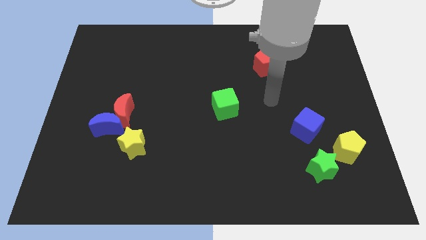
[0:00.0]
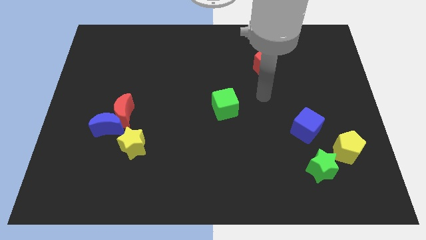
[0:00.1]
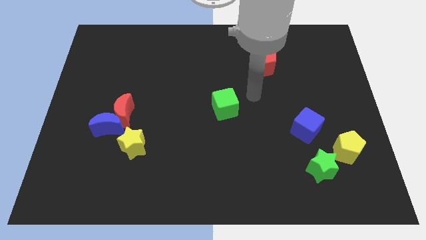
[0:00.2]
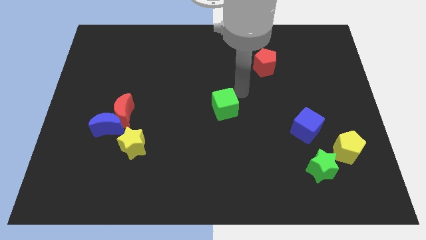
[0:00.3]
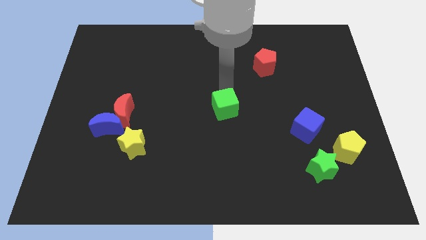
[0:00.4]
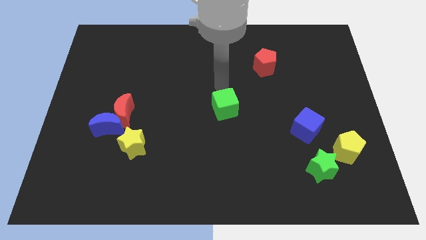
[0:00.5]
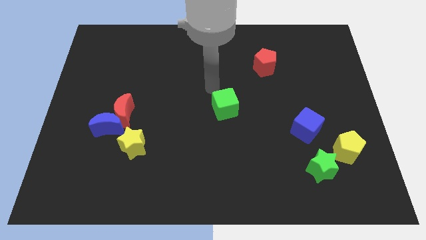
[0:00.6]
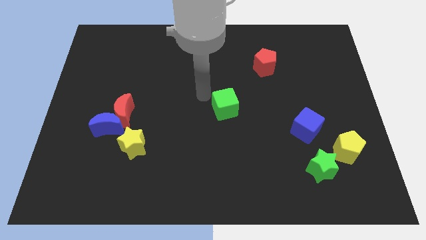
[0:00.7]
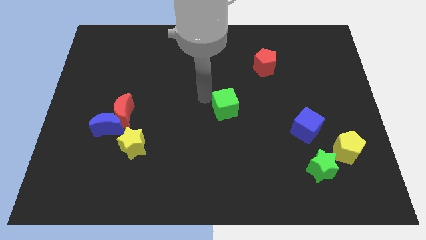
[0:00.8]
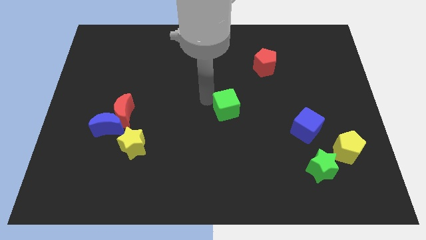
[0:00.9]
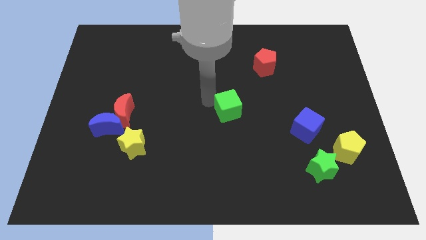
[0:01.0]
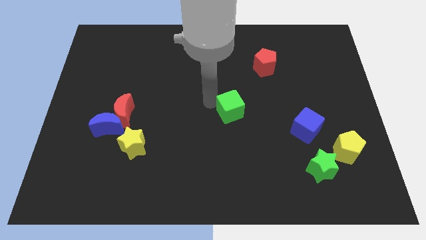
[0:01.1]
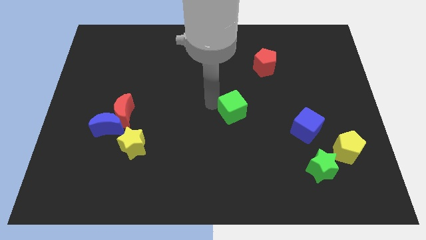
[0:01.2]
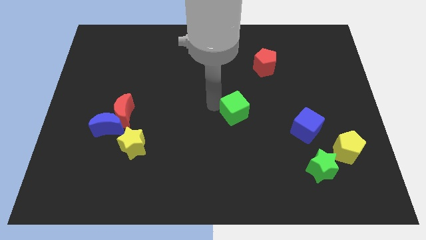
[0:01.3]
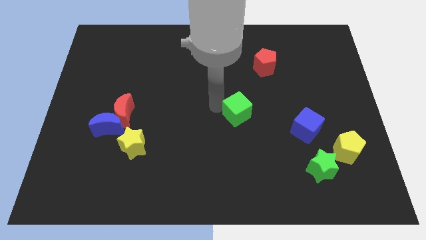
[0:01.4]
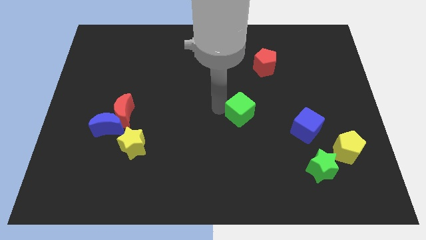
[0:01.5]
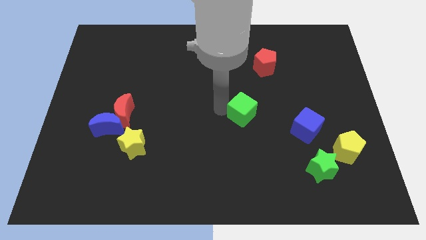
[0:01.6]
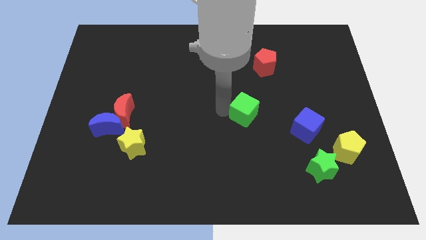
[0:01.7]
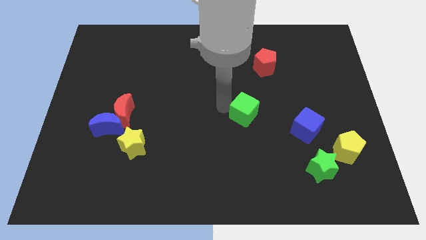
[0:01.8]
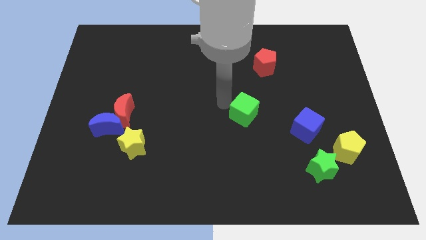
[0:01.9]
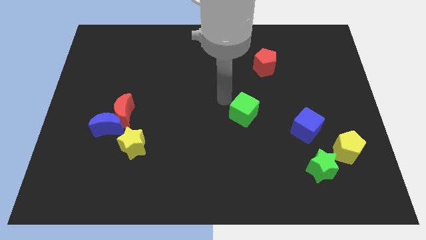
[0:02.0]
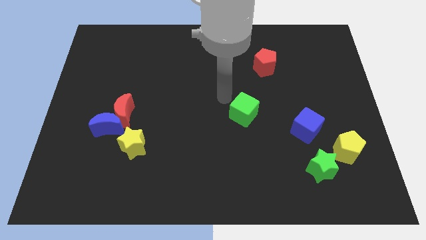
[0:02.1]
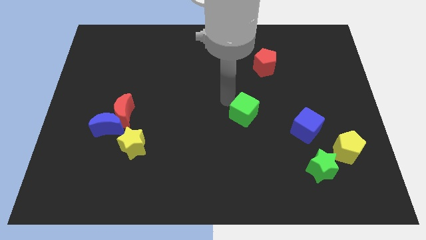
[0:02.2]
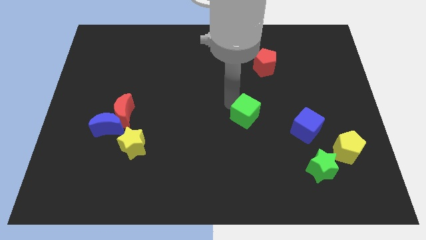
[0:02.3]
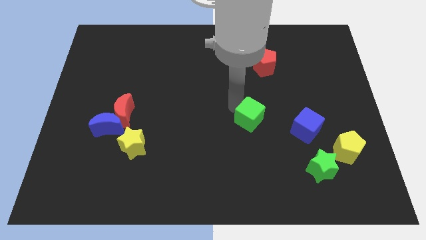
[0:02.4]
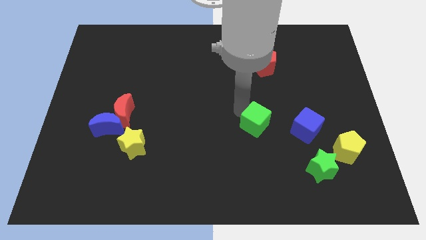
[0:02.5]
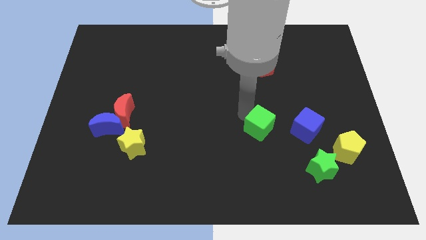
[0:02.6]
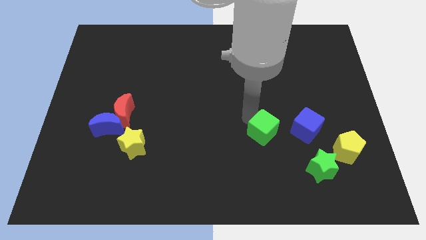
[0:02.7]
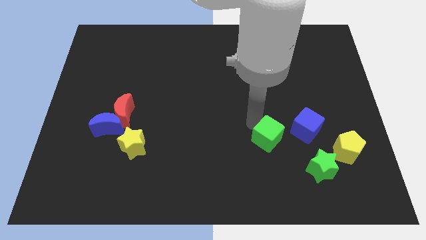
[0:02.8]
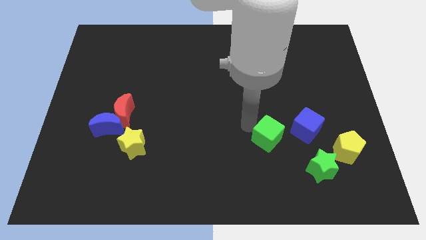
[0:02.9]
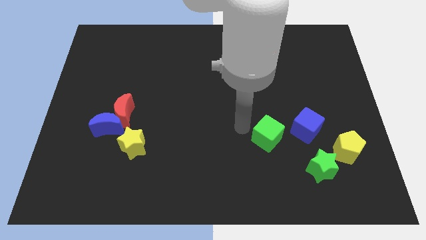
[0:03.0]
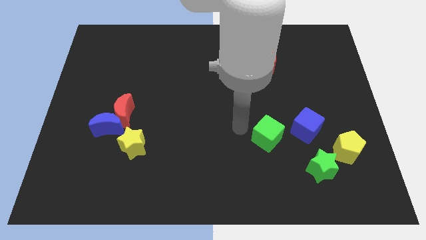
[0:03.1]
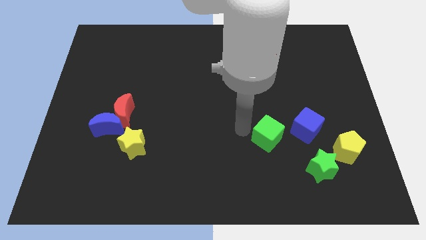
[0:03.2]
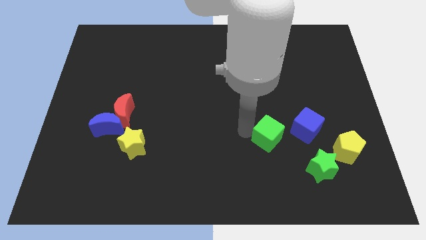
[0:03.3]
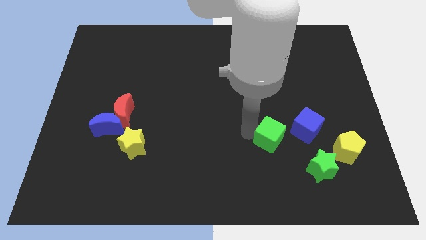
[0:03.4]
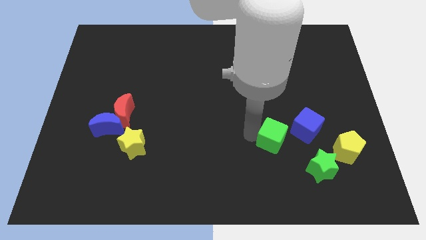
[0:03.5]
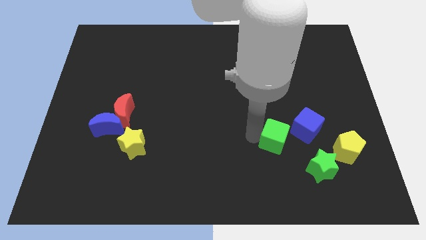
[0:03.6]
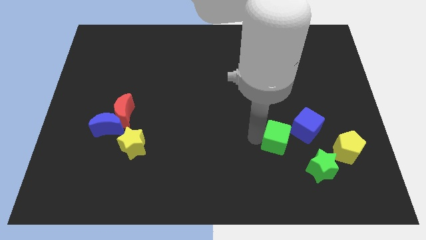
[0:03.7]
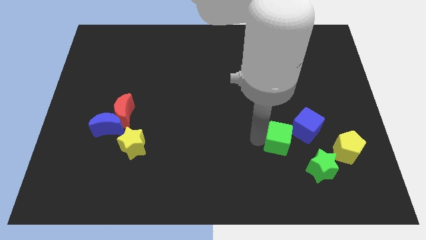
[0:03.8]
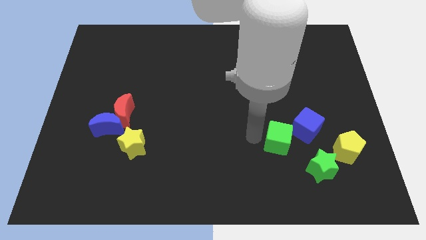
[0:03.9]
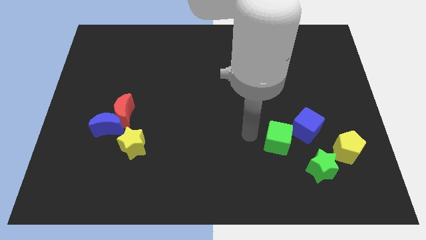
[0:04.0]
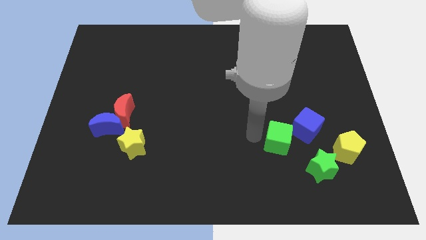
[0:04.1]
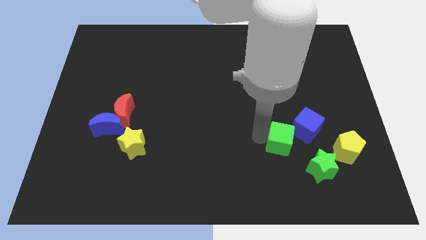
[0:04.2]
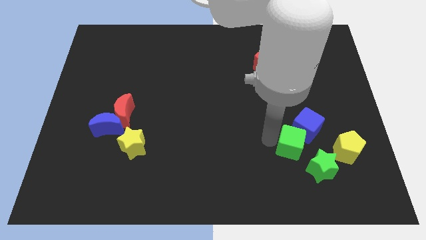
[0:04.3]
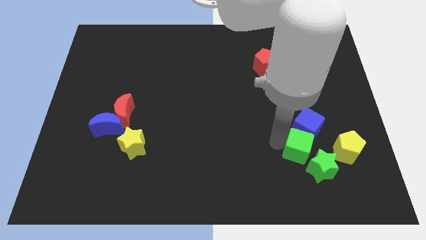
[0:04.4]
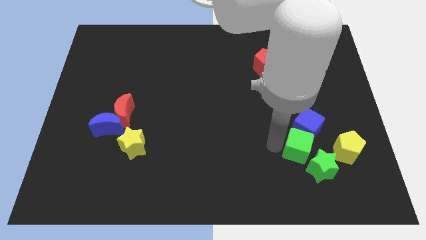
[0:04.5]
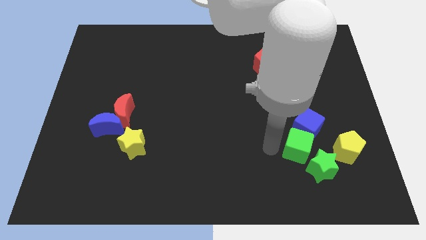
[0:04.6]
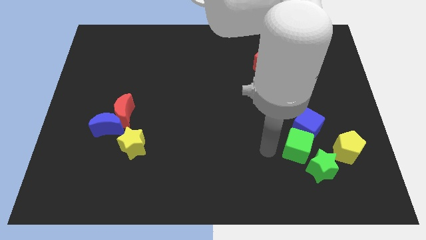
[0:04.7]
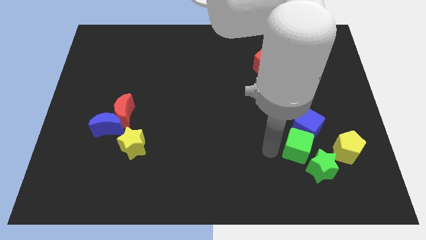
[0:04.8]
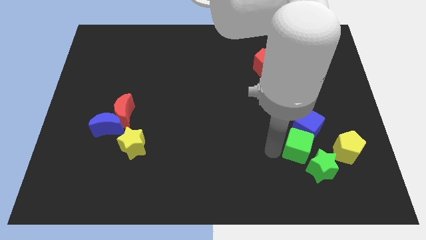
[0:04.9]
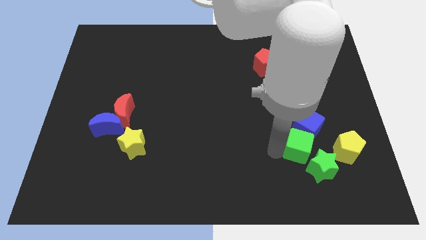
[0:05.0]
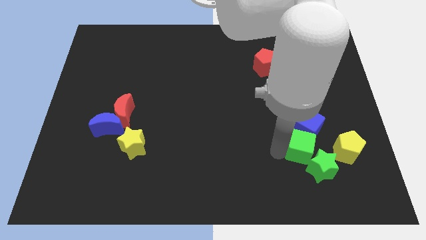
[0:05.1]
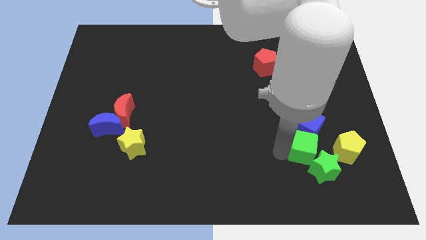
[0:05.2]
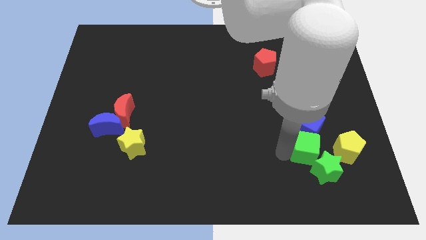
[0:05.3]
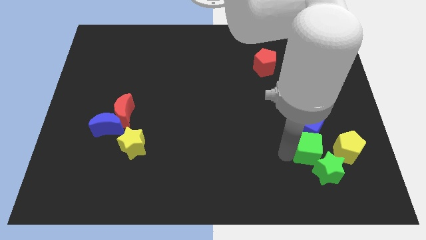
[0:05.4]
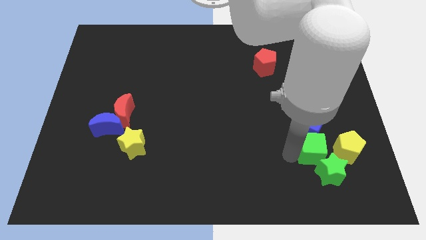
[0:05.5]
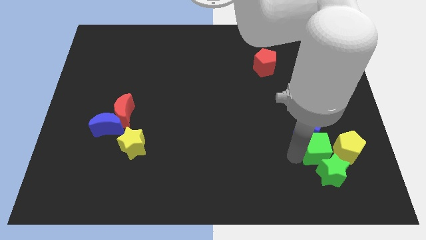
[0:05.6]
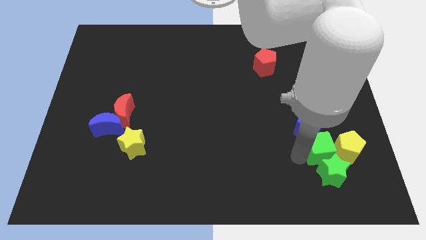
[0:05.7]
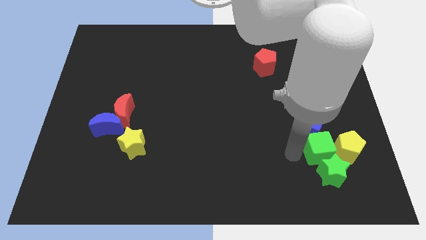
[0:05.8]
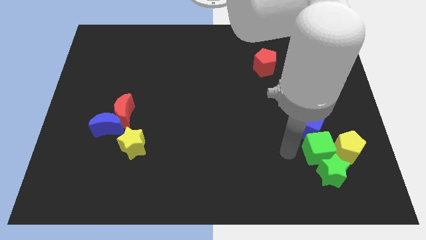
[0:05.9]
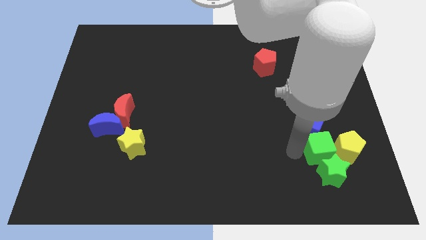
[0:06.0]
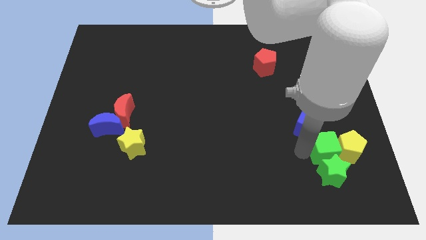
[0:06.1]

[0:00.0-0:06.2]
slide the green cube next to the yellow pentagon

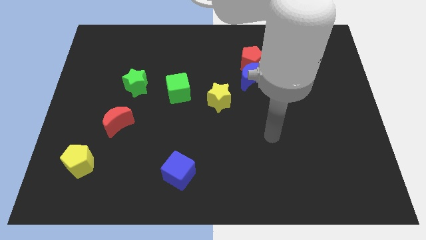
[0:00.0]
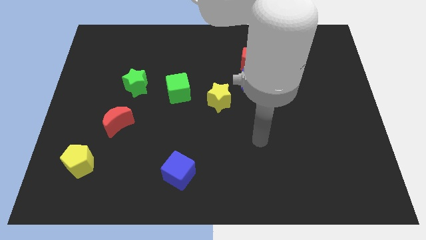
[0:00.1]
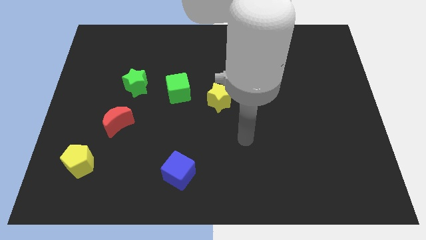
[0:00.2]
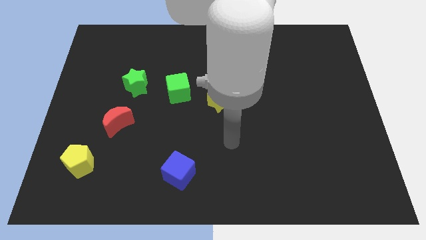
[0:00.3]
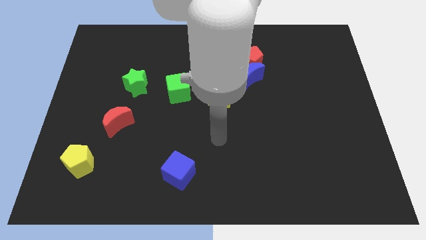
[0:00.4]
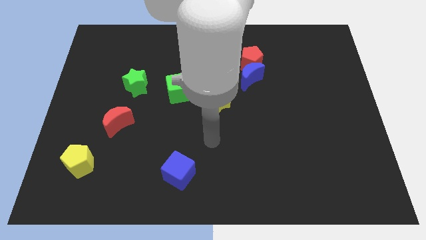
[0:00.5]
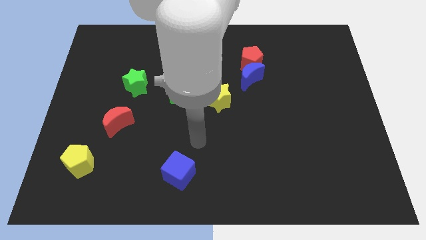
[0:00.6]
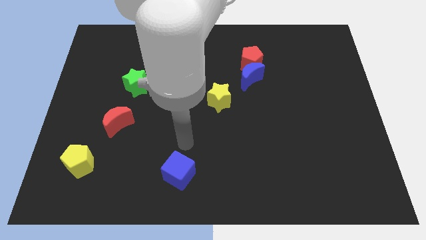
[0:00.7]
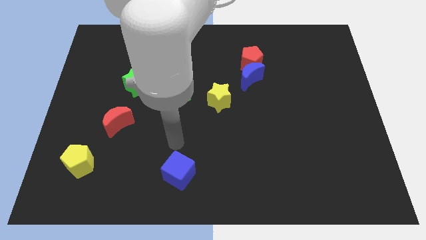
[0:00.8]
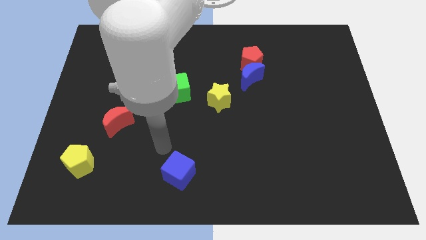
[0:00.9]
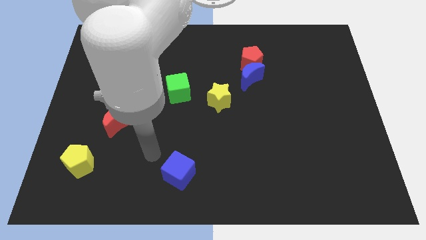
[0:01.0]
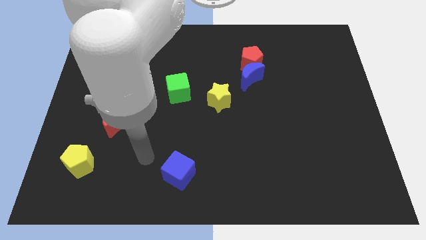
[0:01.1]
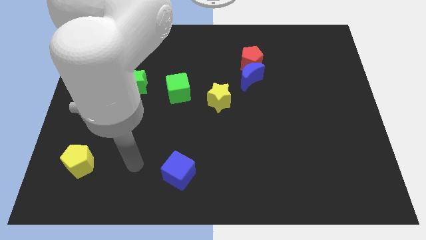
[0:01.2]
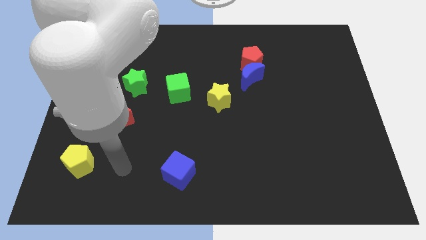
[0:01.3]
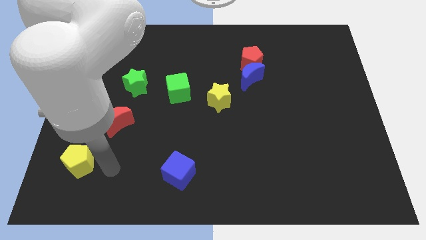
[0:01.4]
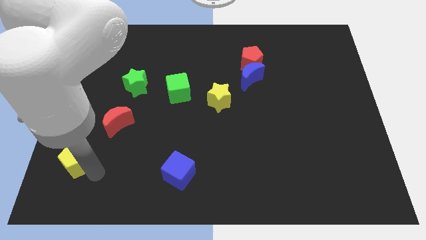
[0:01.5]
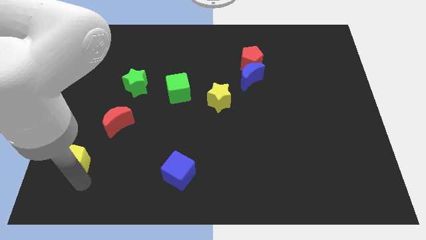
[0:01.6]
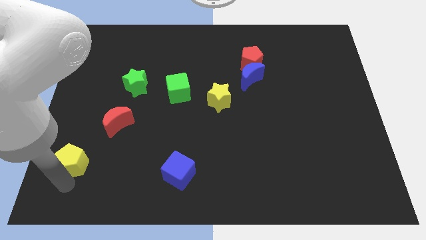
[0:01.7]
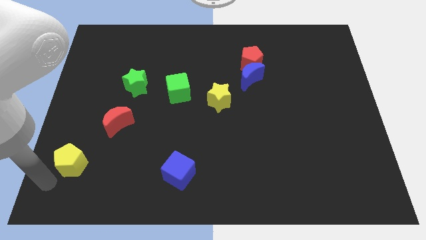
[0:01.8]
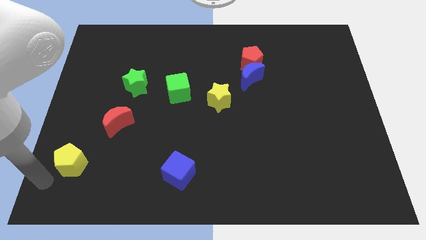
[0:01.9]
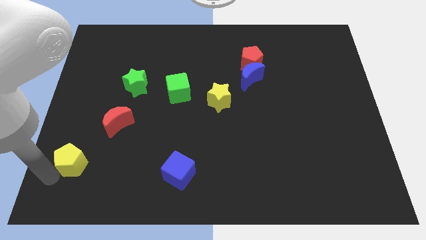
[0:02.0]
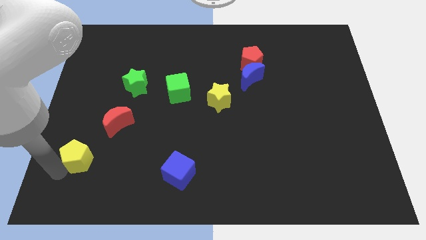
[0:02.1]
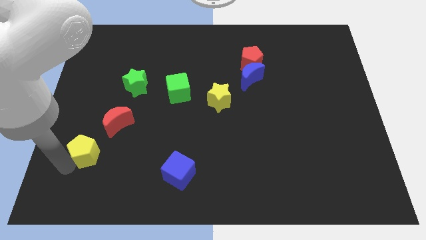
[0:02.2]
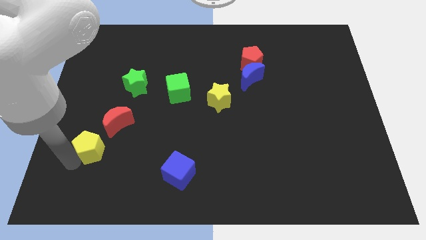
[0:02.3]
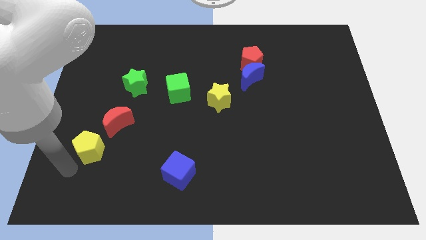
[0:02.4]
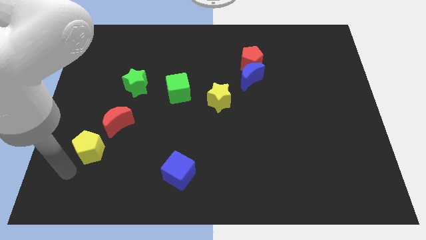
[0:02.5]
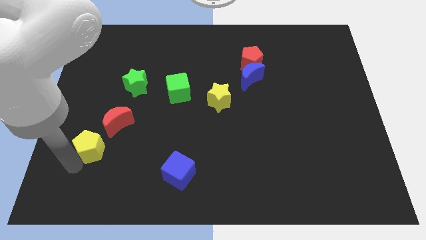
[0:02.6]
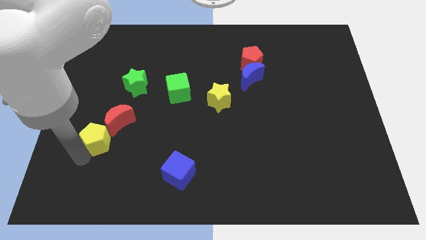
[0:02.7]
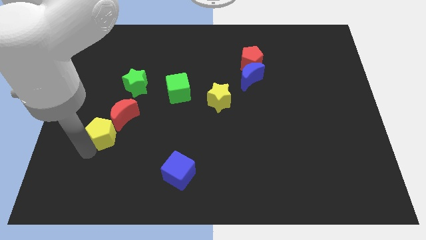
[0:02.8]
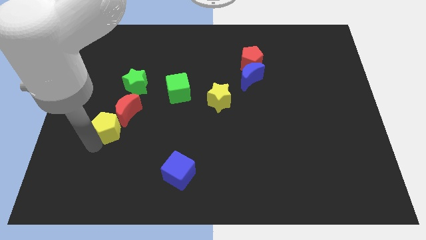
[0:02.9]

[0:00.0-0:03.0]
slide the yellow pentagon next to the red moon
